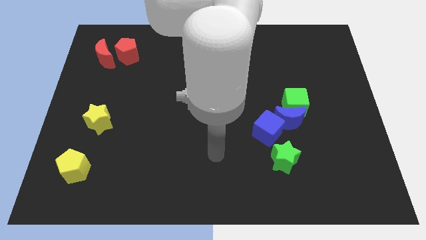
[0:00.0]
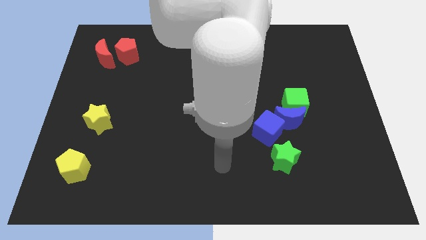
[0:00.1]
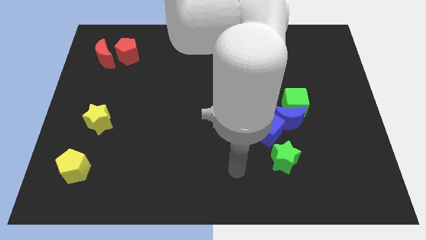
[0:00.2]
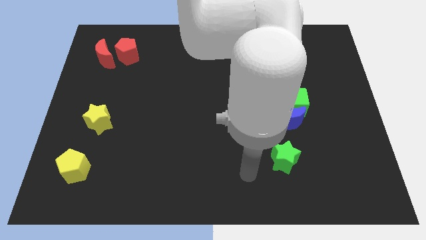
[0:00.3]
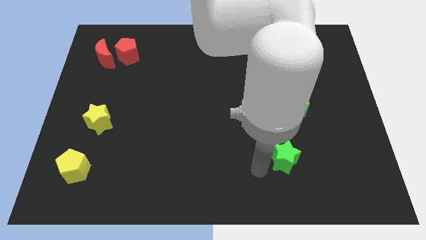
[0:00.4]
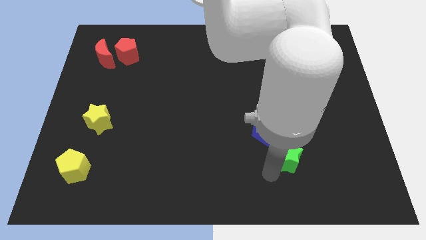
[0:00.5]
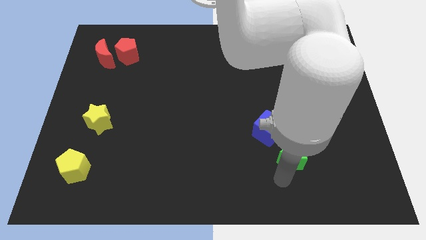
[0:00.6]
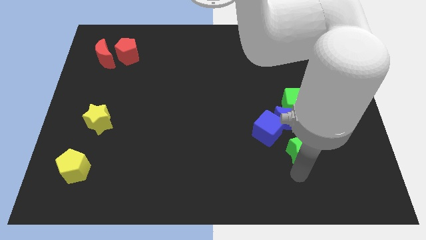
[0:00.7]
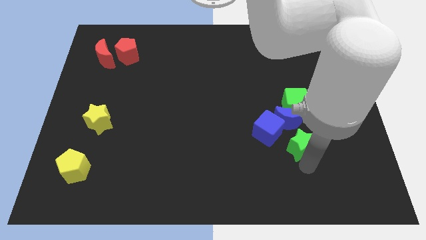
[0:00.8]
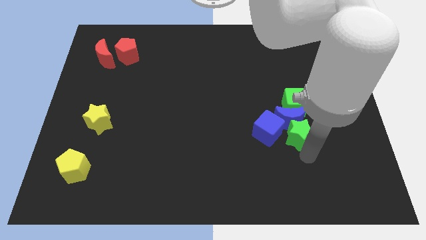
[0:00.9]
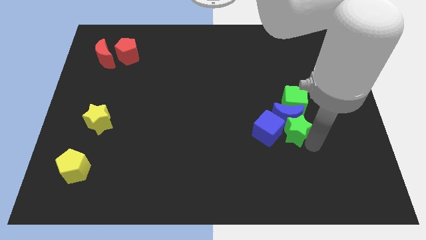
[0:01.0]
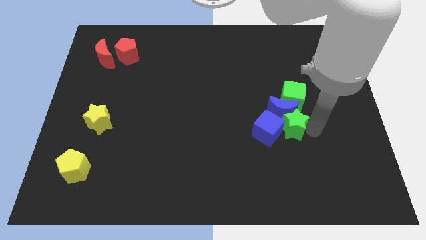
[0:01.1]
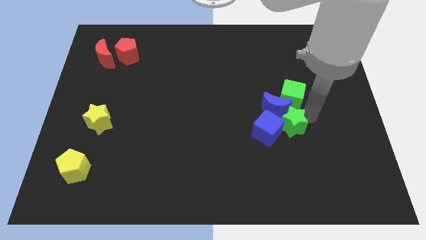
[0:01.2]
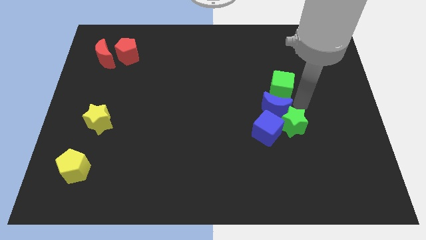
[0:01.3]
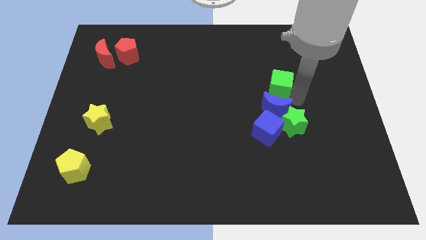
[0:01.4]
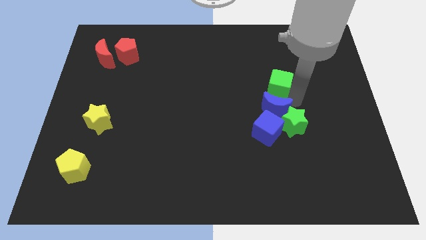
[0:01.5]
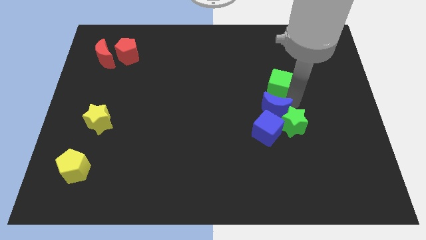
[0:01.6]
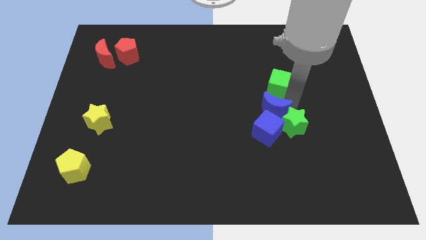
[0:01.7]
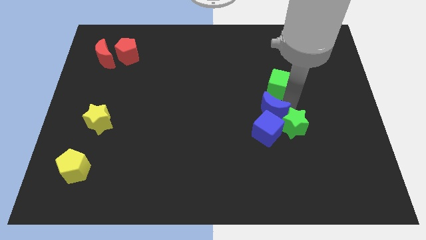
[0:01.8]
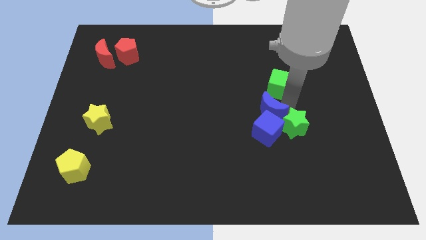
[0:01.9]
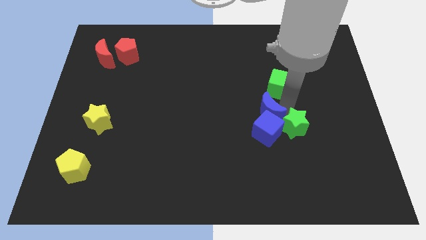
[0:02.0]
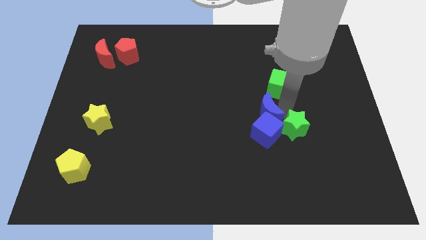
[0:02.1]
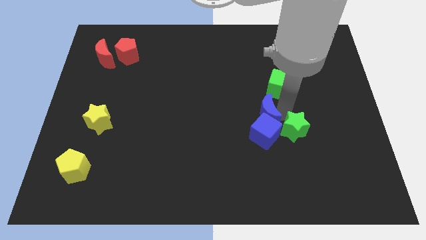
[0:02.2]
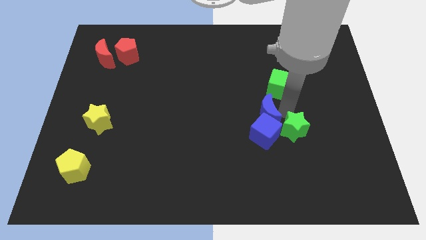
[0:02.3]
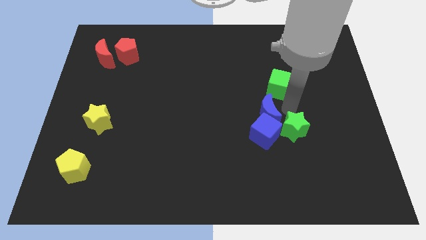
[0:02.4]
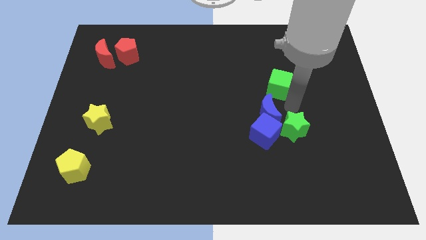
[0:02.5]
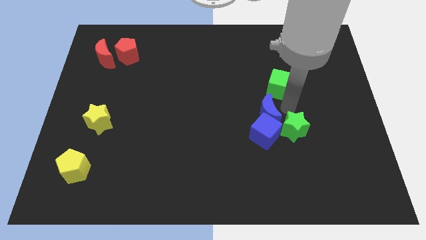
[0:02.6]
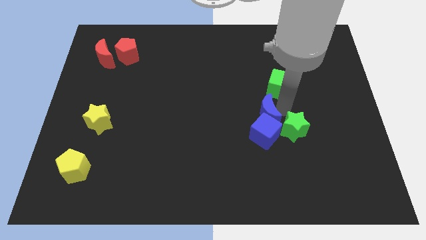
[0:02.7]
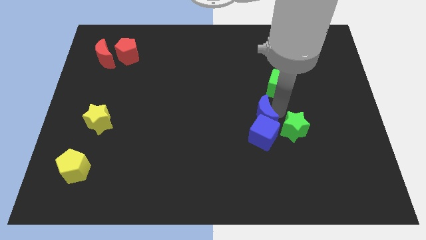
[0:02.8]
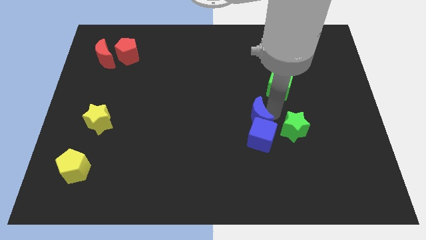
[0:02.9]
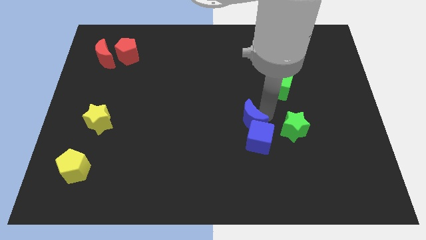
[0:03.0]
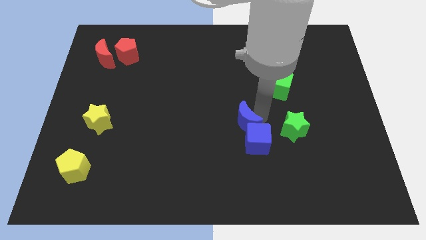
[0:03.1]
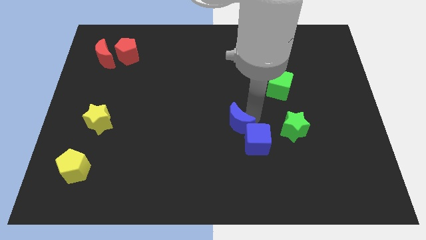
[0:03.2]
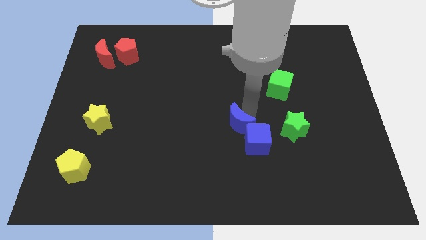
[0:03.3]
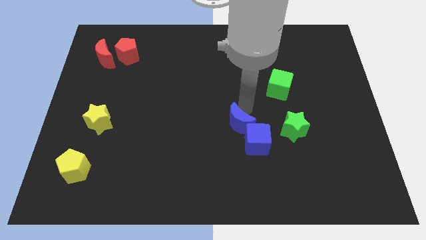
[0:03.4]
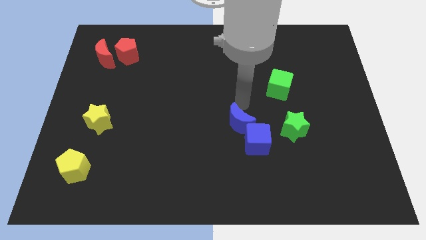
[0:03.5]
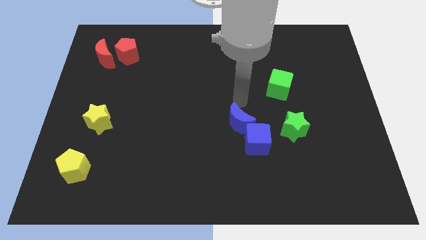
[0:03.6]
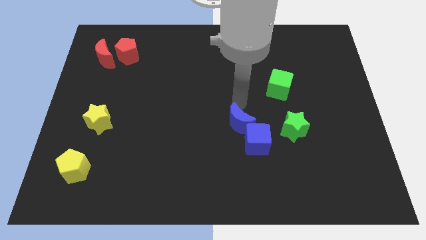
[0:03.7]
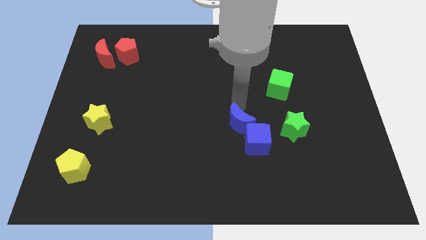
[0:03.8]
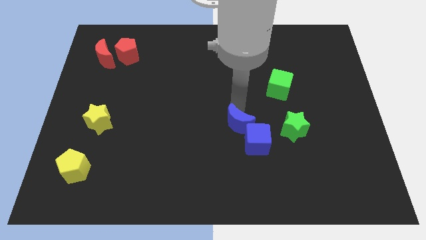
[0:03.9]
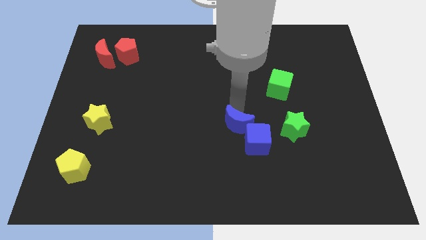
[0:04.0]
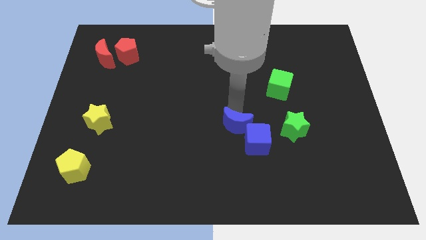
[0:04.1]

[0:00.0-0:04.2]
move the blue moon down and left a bit

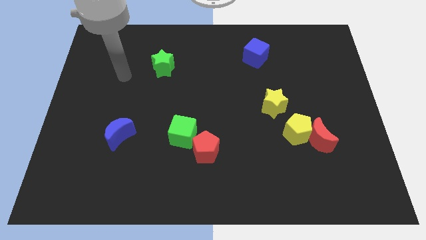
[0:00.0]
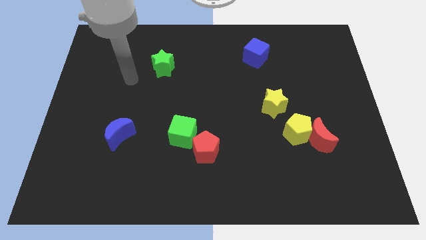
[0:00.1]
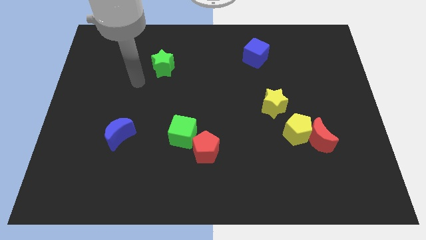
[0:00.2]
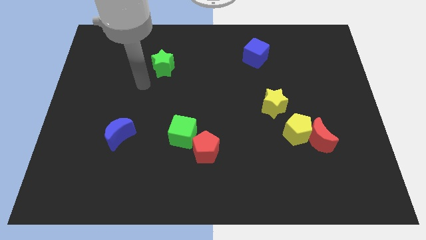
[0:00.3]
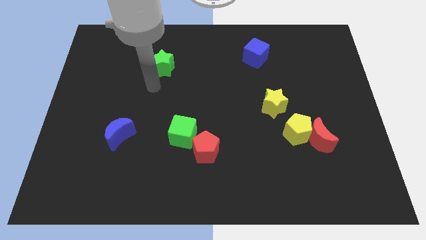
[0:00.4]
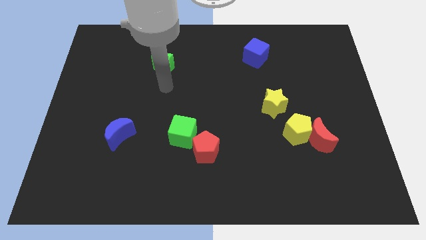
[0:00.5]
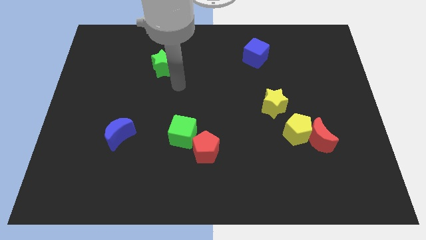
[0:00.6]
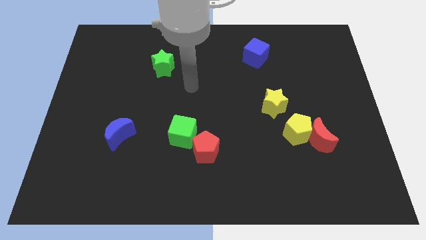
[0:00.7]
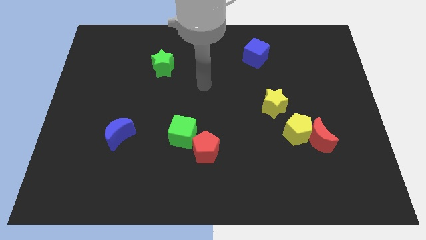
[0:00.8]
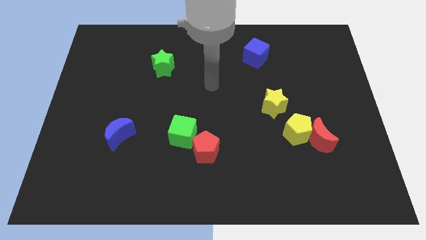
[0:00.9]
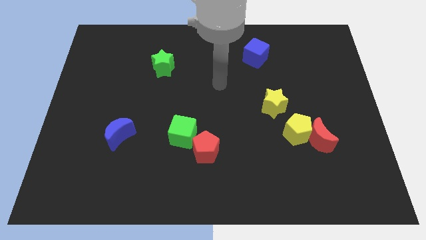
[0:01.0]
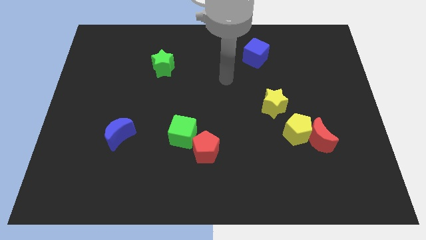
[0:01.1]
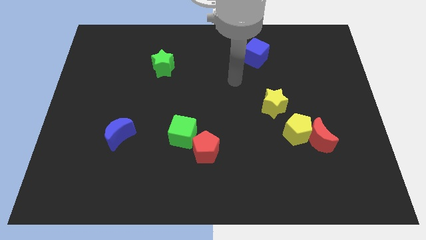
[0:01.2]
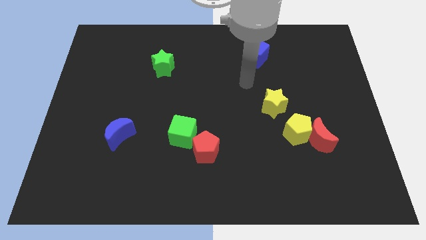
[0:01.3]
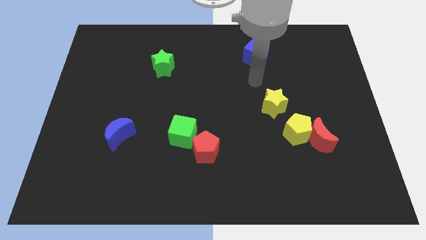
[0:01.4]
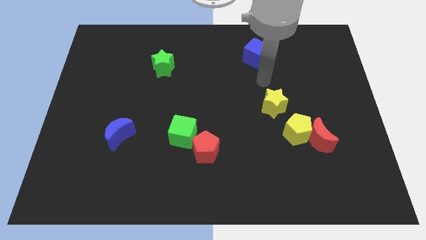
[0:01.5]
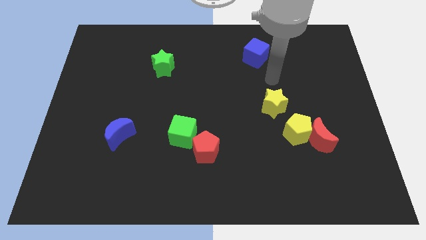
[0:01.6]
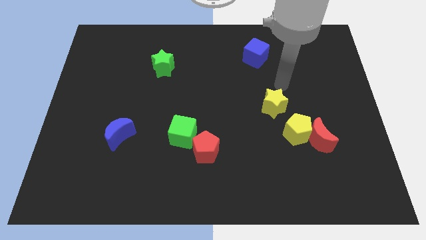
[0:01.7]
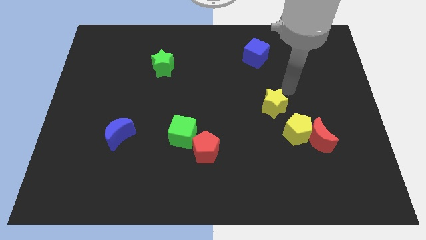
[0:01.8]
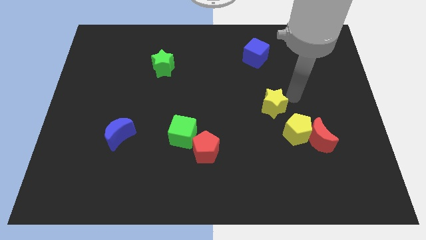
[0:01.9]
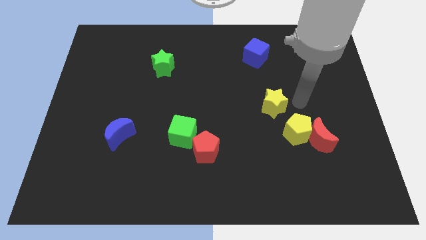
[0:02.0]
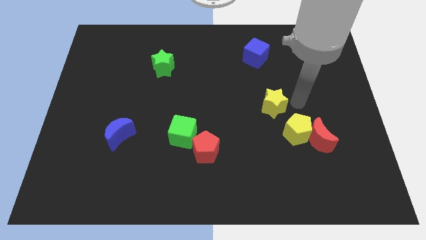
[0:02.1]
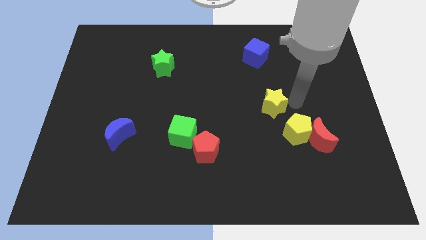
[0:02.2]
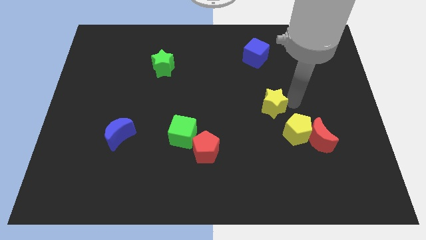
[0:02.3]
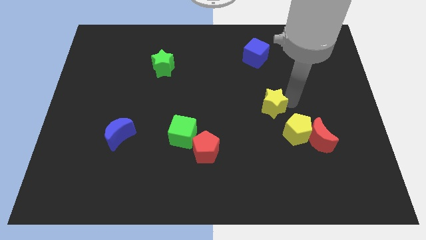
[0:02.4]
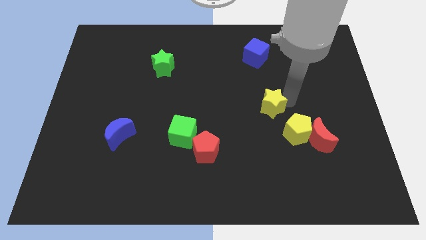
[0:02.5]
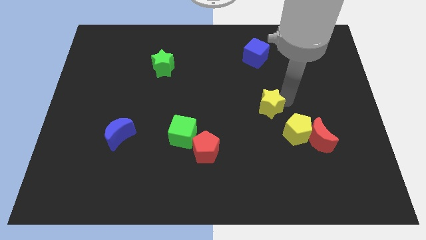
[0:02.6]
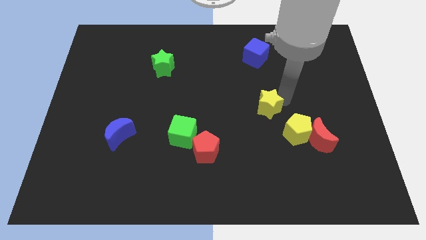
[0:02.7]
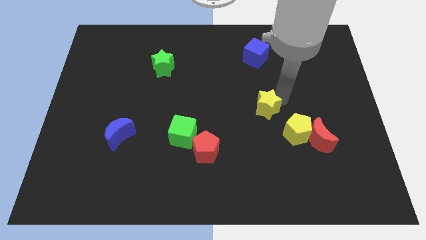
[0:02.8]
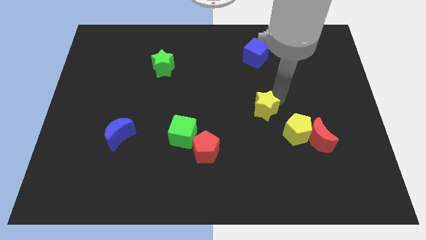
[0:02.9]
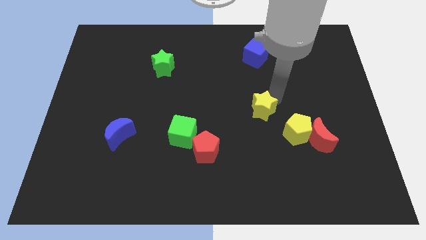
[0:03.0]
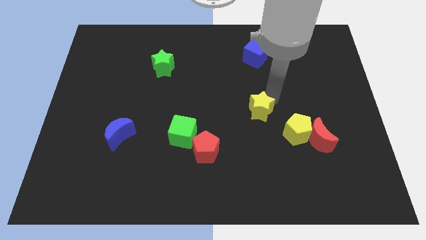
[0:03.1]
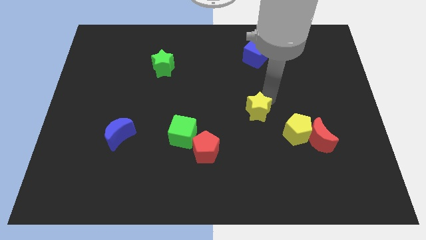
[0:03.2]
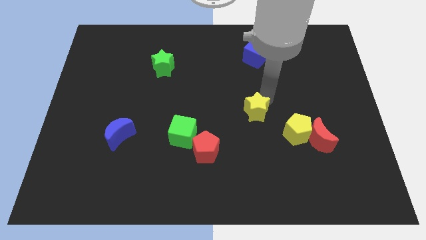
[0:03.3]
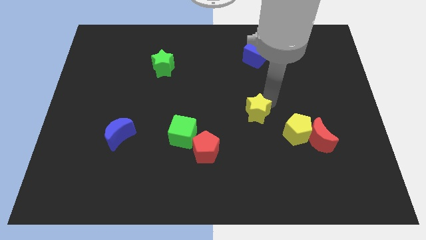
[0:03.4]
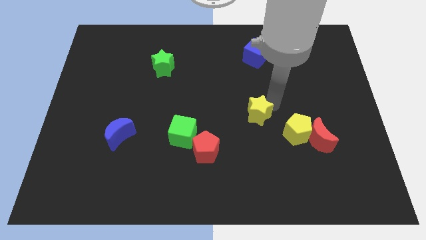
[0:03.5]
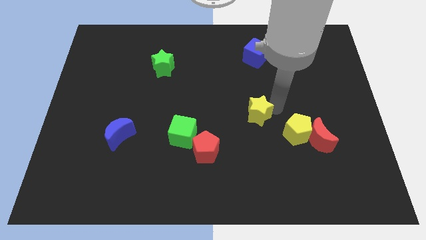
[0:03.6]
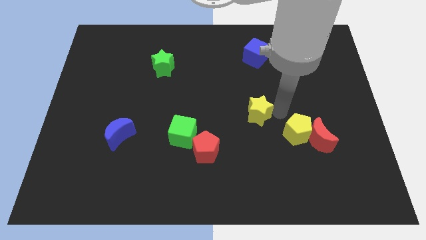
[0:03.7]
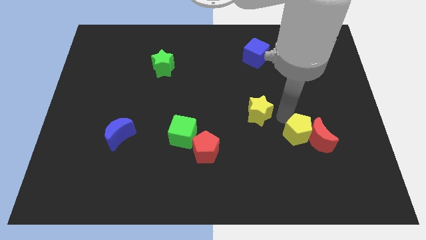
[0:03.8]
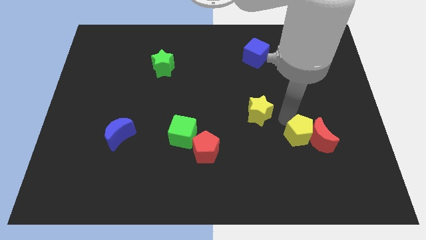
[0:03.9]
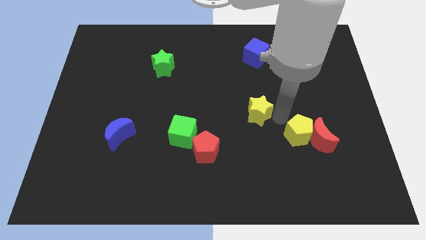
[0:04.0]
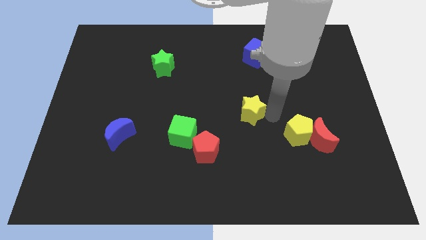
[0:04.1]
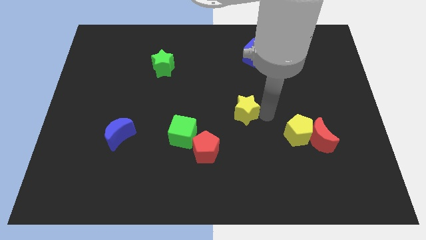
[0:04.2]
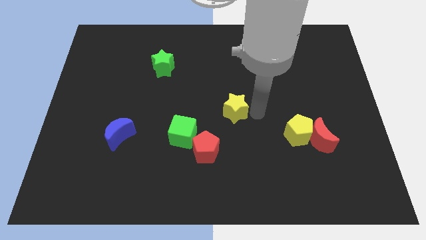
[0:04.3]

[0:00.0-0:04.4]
slightly slide the yellow star left
